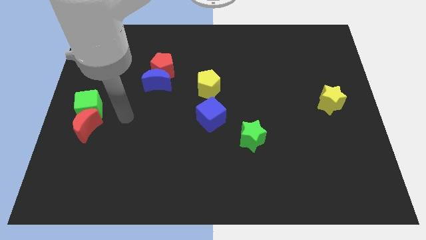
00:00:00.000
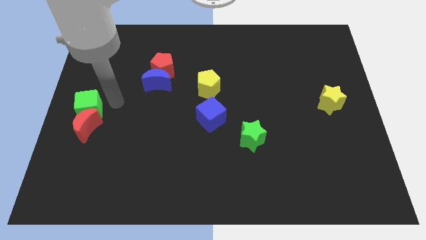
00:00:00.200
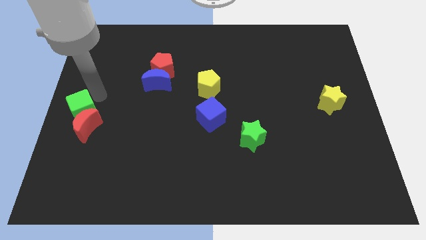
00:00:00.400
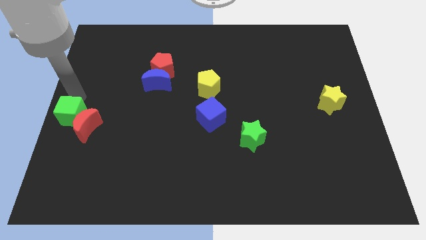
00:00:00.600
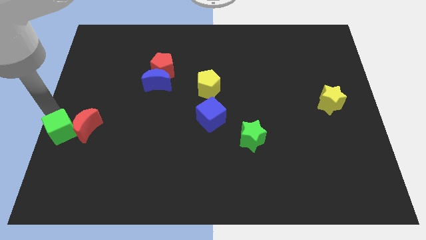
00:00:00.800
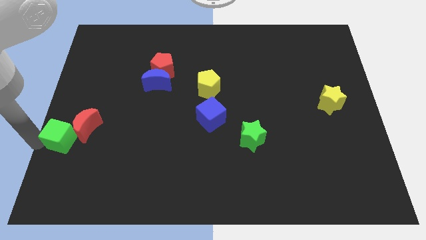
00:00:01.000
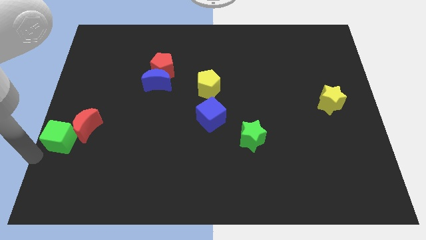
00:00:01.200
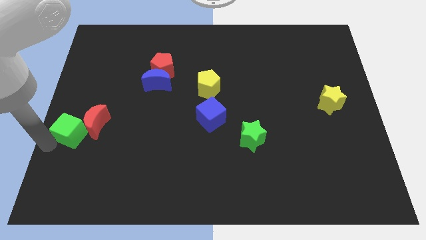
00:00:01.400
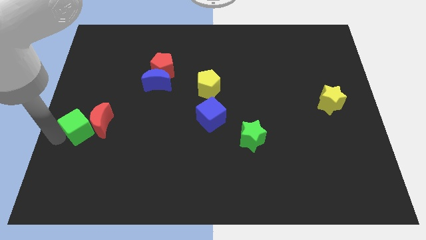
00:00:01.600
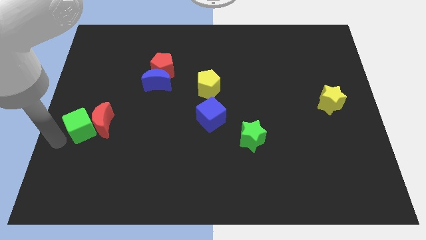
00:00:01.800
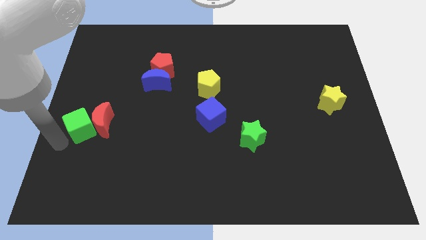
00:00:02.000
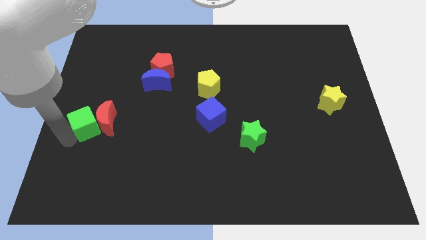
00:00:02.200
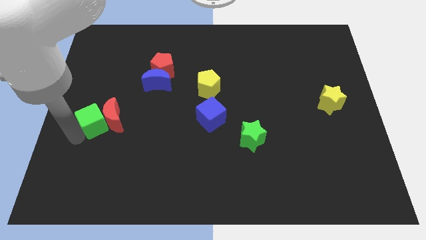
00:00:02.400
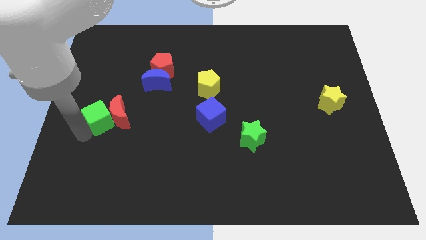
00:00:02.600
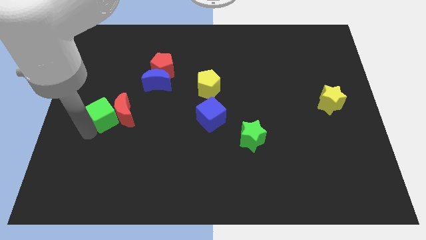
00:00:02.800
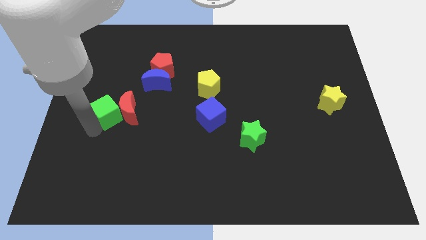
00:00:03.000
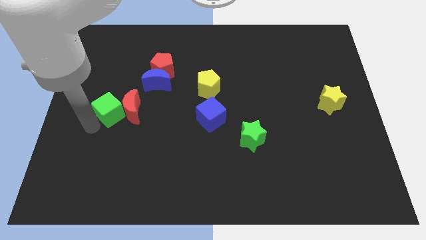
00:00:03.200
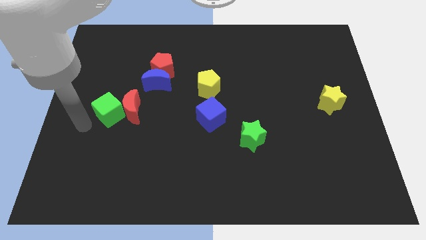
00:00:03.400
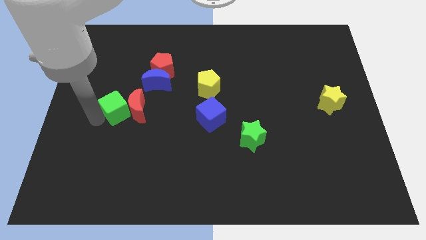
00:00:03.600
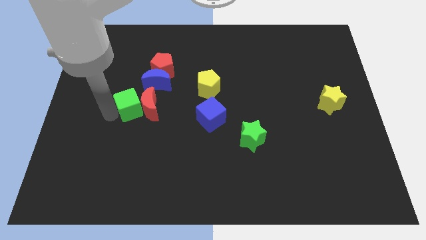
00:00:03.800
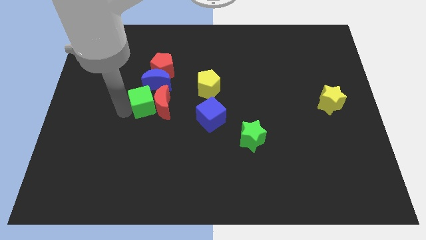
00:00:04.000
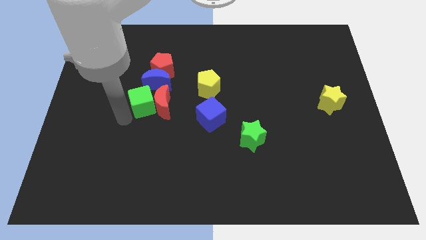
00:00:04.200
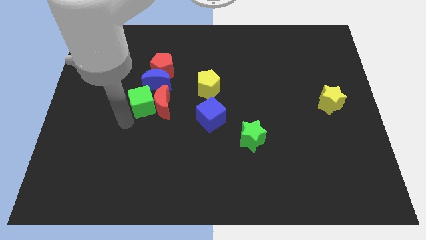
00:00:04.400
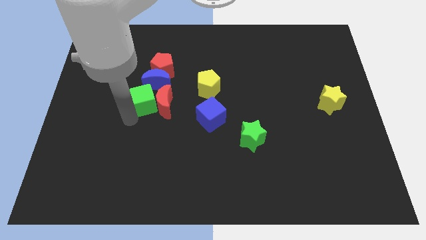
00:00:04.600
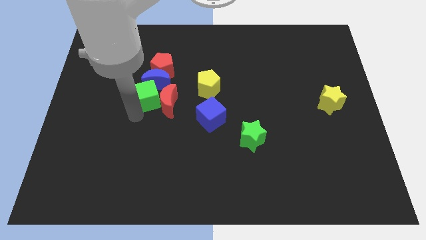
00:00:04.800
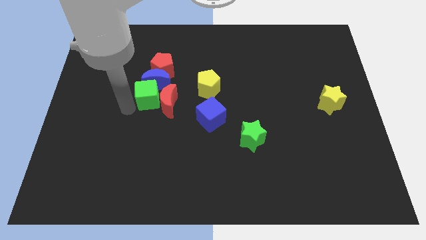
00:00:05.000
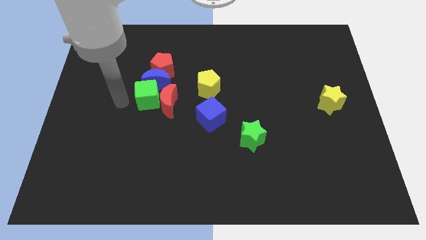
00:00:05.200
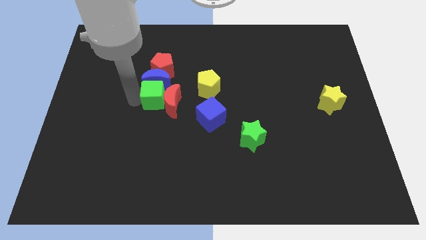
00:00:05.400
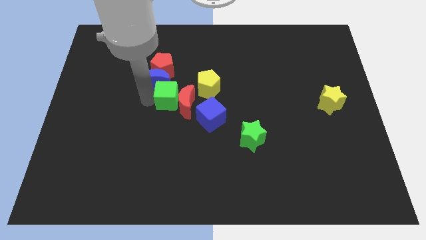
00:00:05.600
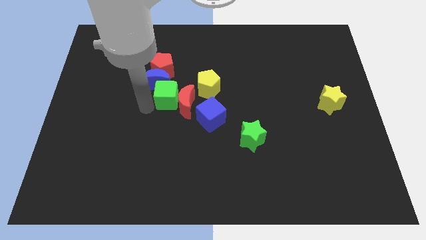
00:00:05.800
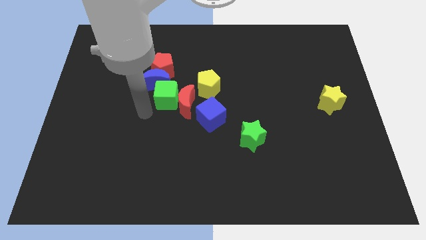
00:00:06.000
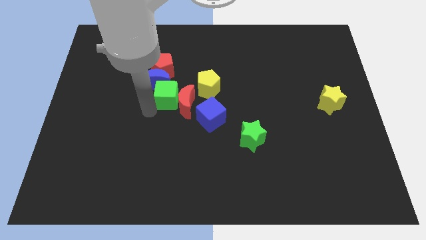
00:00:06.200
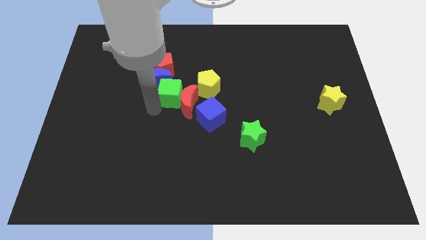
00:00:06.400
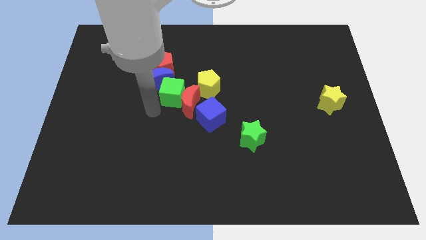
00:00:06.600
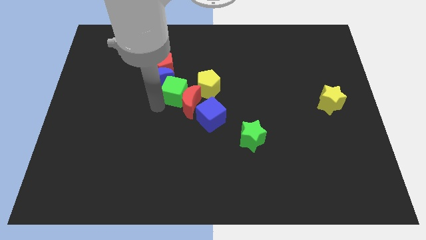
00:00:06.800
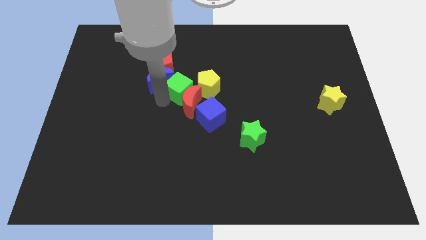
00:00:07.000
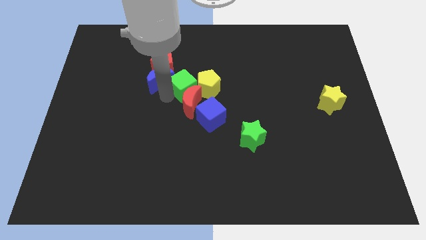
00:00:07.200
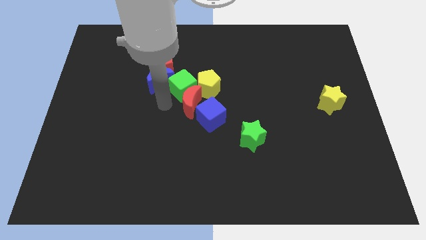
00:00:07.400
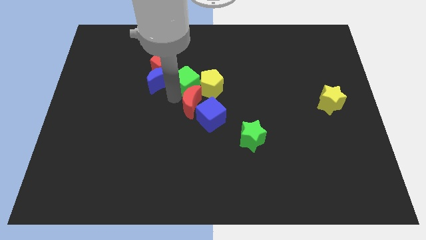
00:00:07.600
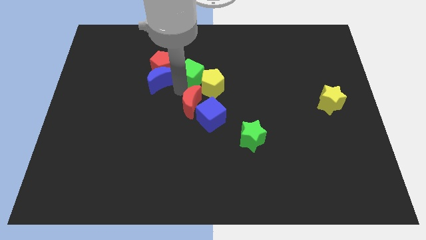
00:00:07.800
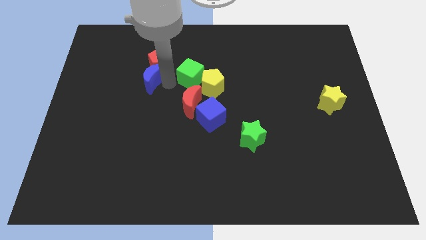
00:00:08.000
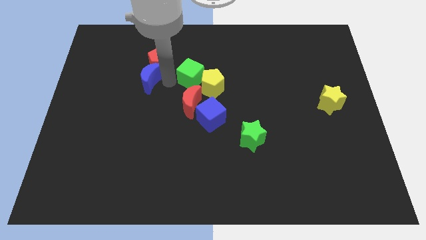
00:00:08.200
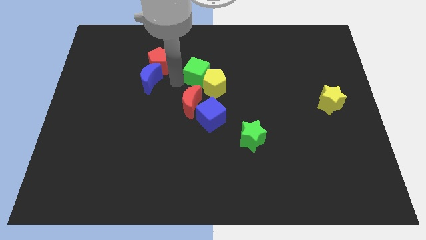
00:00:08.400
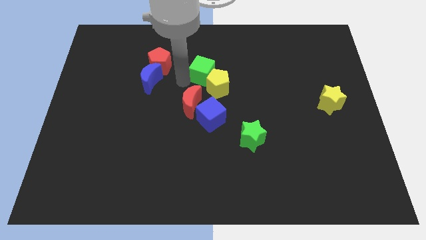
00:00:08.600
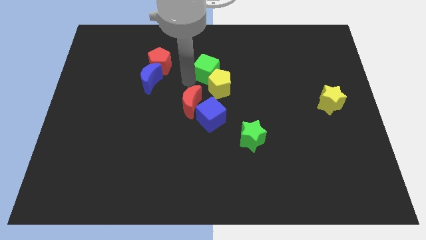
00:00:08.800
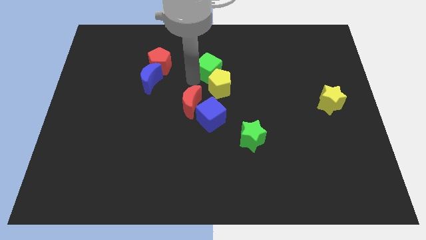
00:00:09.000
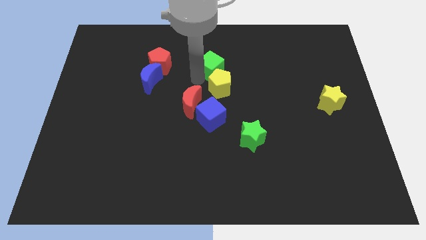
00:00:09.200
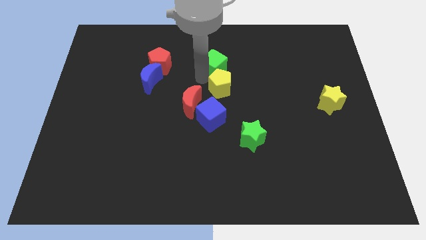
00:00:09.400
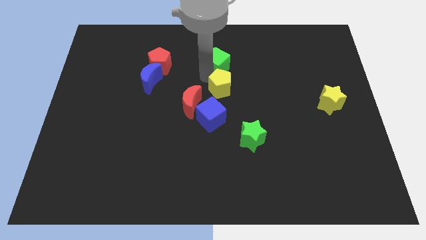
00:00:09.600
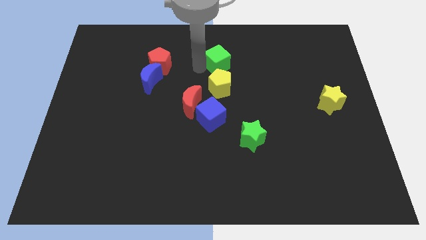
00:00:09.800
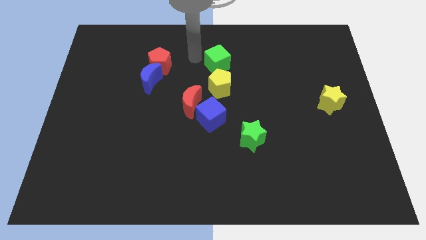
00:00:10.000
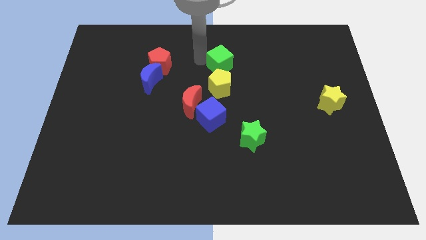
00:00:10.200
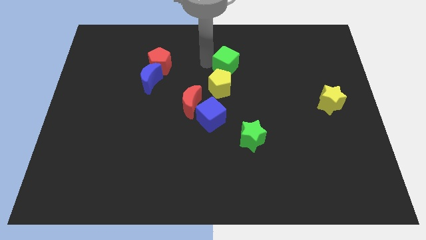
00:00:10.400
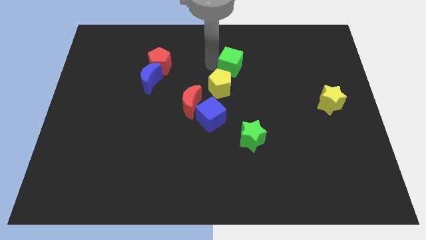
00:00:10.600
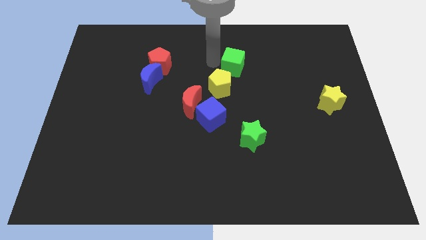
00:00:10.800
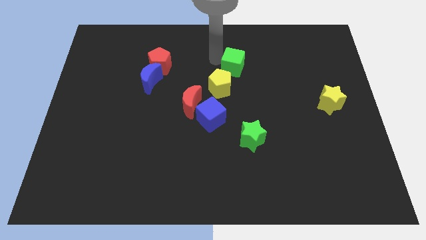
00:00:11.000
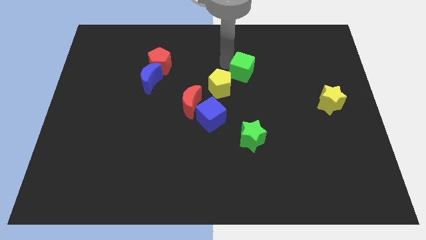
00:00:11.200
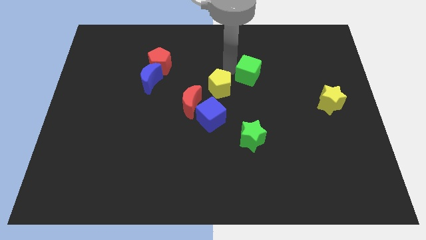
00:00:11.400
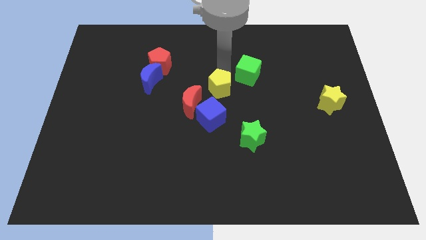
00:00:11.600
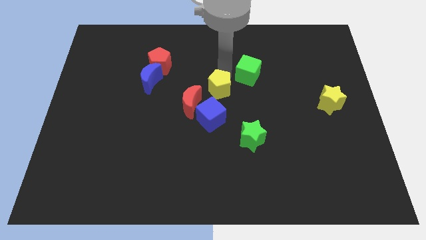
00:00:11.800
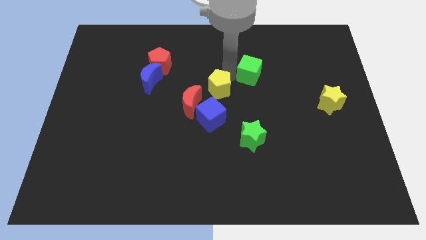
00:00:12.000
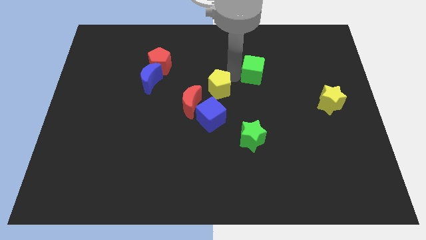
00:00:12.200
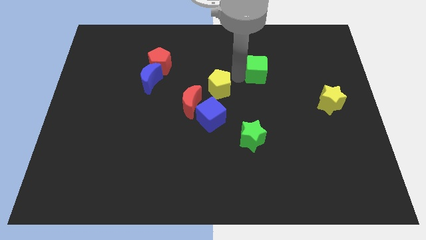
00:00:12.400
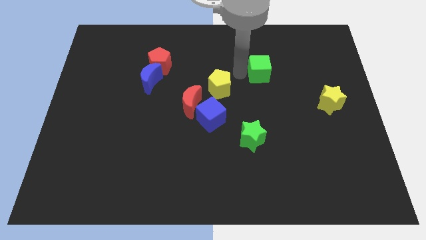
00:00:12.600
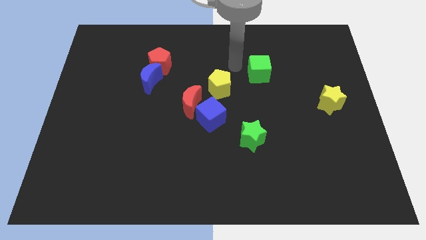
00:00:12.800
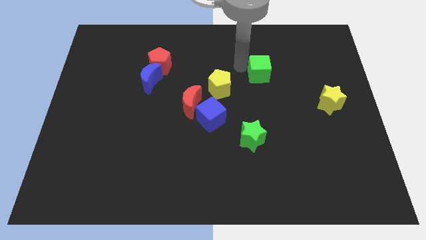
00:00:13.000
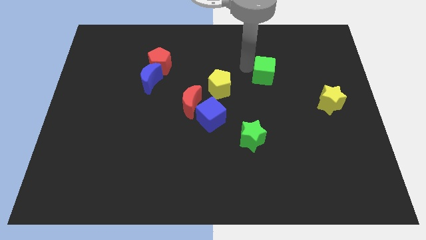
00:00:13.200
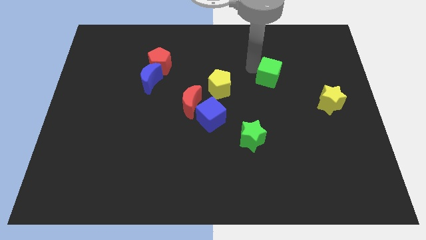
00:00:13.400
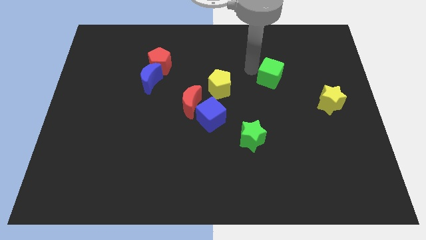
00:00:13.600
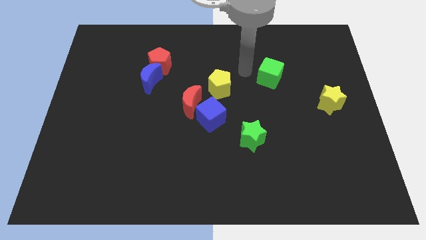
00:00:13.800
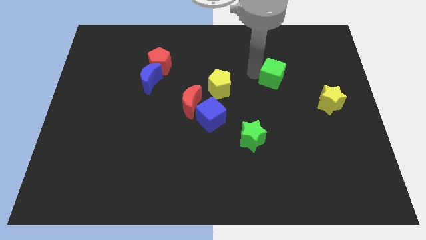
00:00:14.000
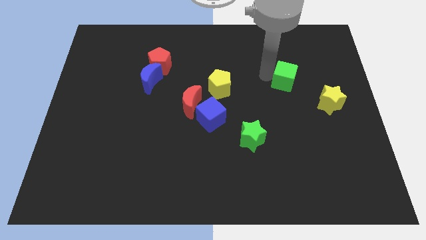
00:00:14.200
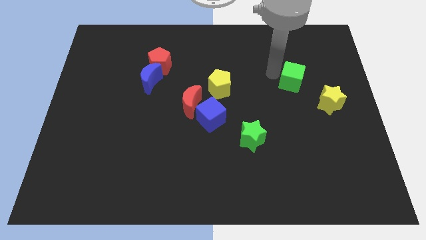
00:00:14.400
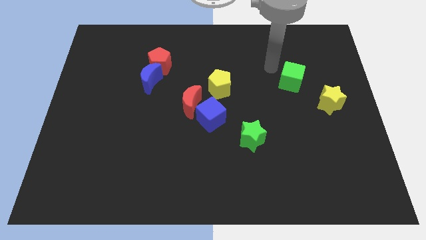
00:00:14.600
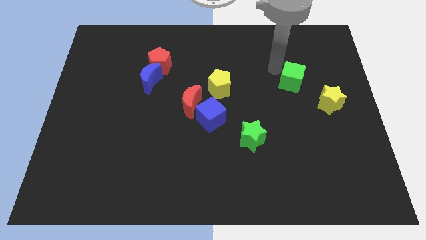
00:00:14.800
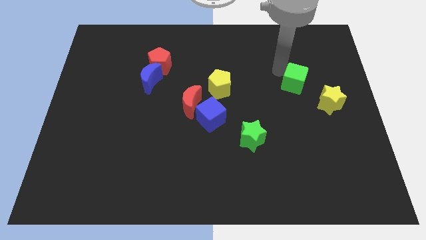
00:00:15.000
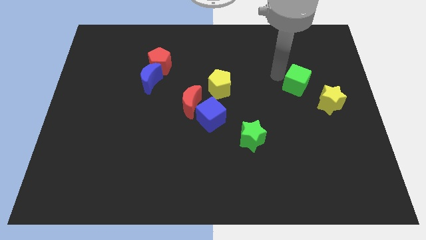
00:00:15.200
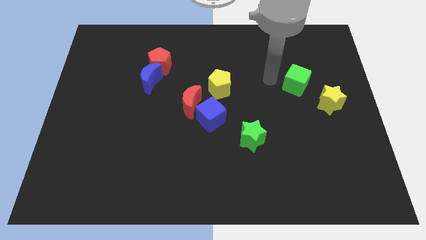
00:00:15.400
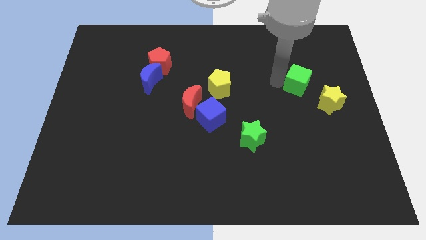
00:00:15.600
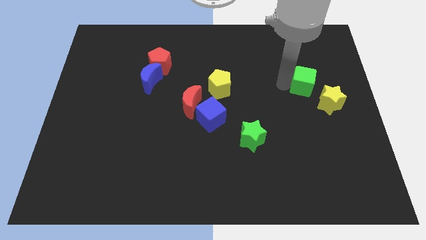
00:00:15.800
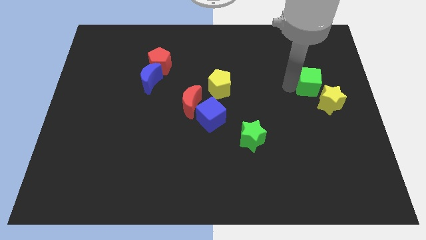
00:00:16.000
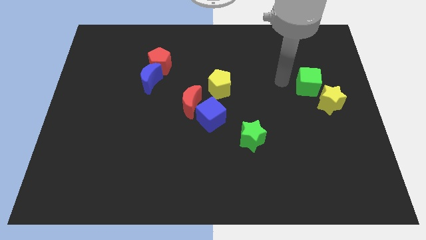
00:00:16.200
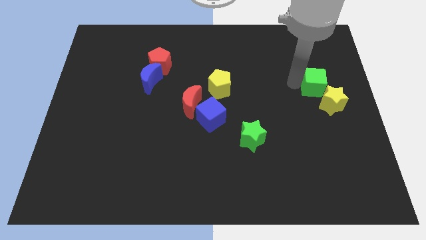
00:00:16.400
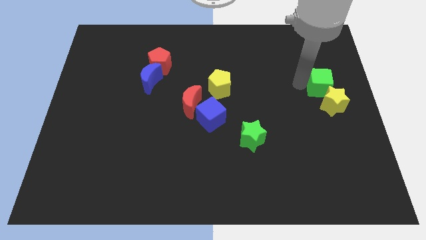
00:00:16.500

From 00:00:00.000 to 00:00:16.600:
slide the green cube to the right side of the board
